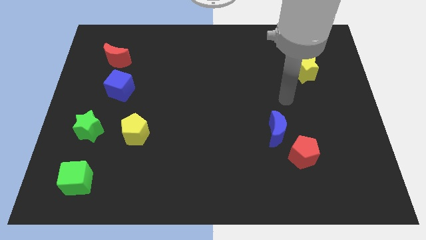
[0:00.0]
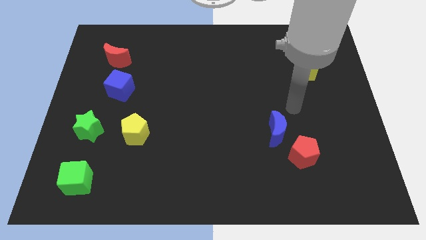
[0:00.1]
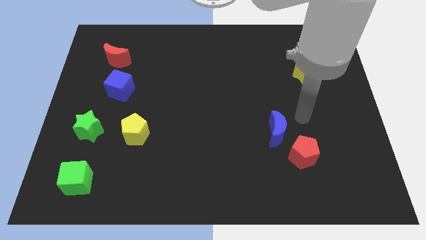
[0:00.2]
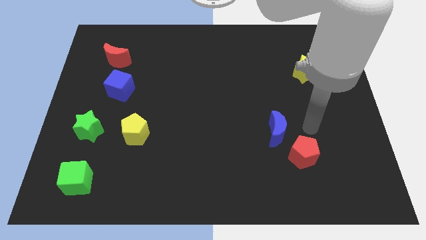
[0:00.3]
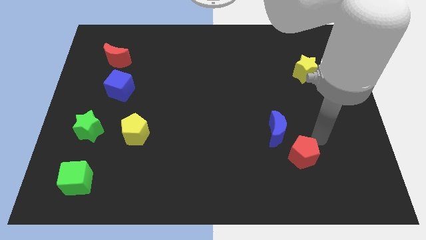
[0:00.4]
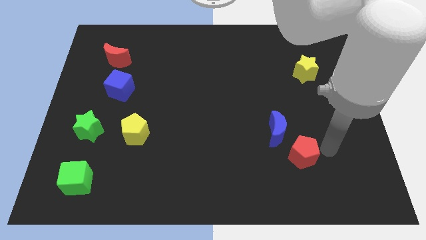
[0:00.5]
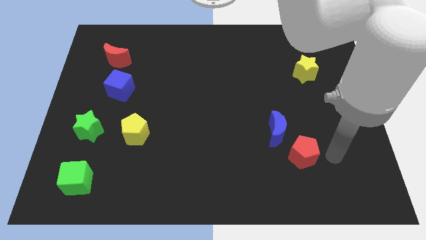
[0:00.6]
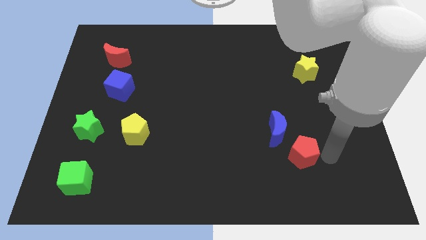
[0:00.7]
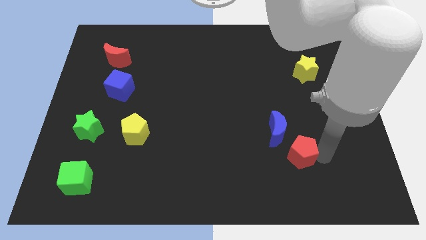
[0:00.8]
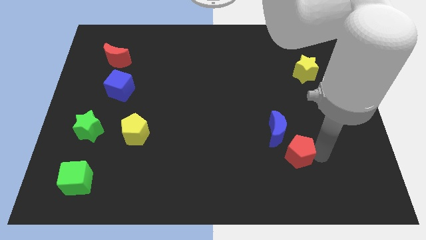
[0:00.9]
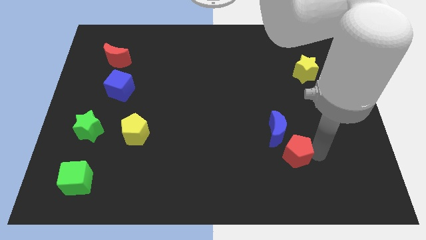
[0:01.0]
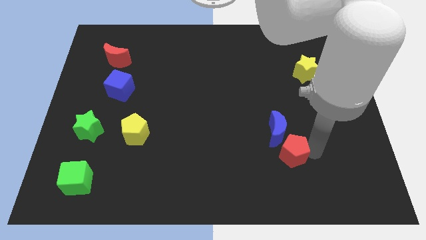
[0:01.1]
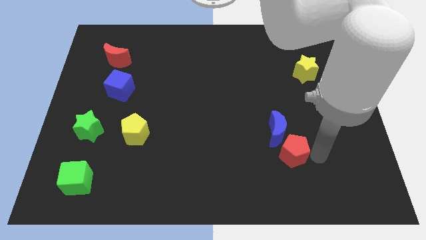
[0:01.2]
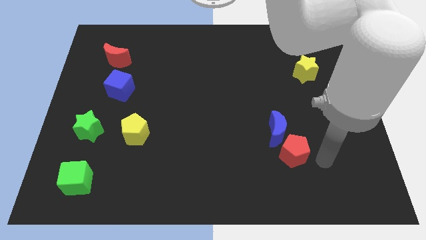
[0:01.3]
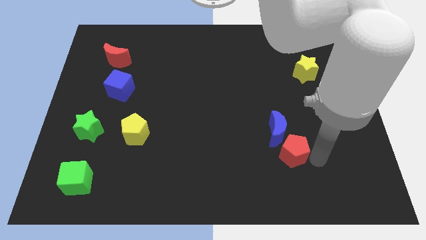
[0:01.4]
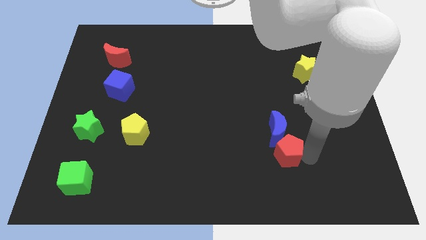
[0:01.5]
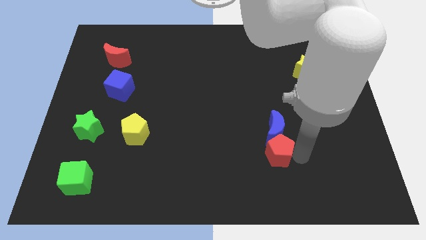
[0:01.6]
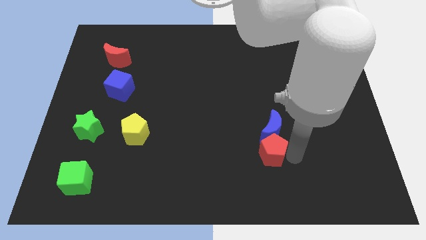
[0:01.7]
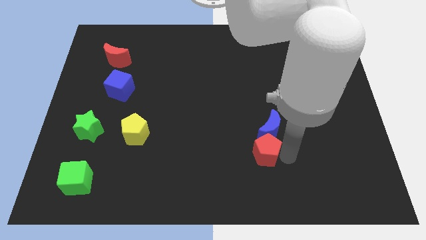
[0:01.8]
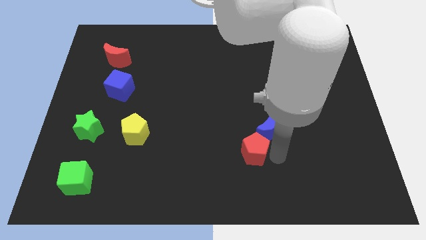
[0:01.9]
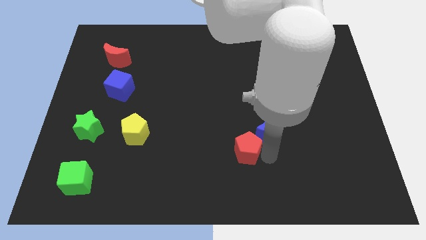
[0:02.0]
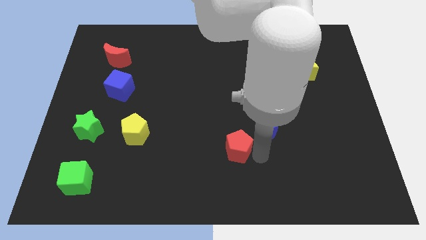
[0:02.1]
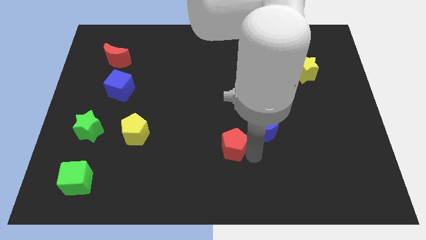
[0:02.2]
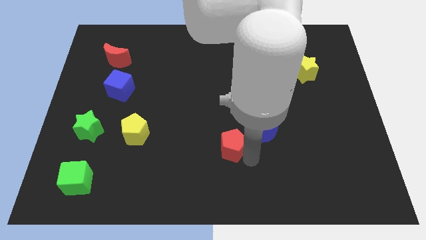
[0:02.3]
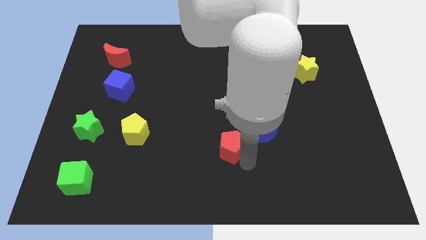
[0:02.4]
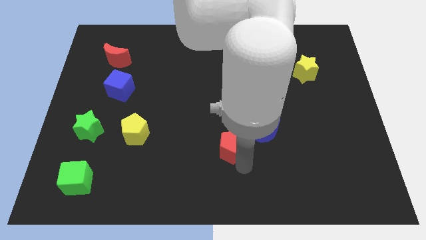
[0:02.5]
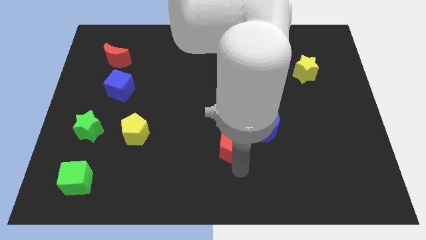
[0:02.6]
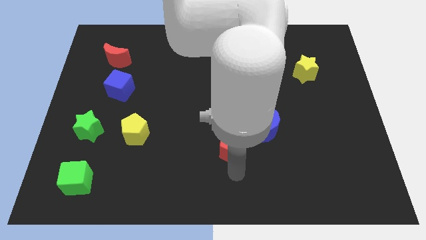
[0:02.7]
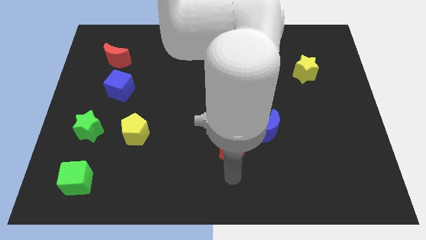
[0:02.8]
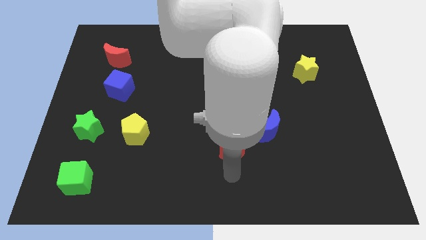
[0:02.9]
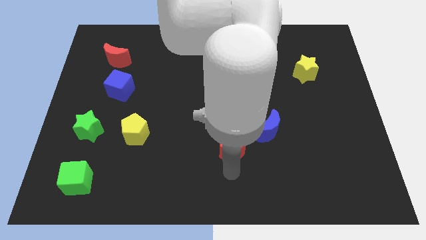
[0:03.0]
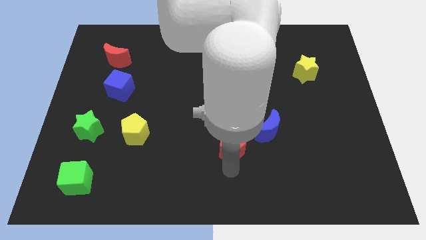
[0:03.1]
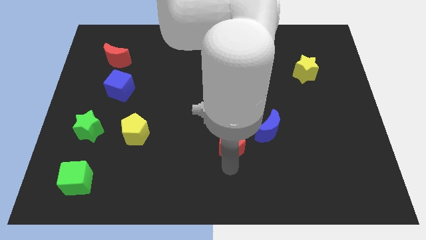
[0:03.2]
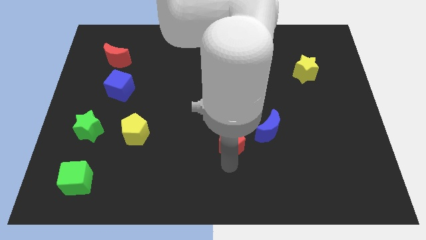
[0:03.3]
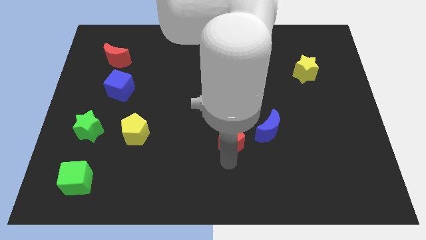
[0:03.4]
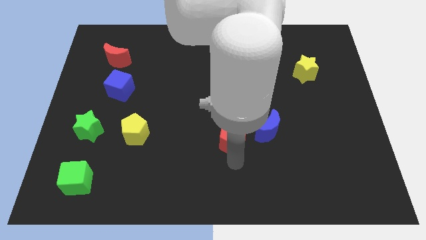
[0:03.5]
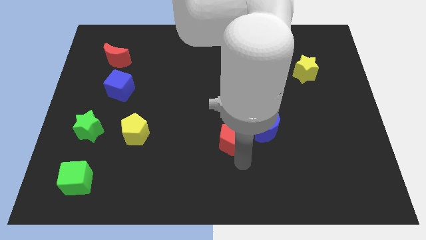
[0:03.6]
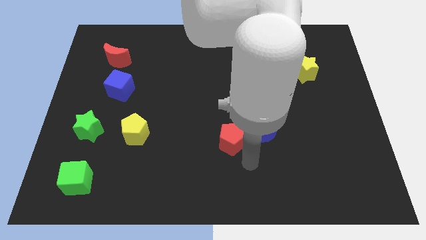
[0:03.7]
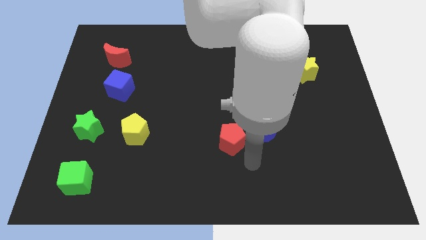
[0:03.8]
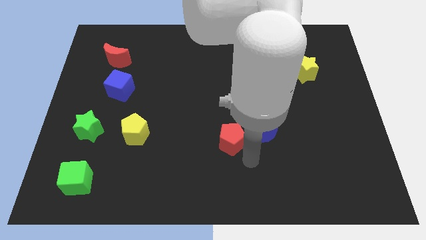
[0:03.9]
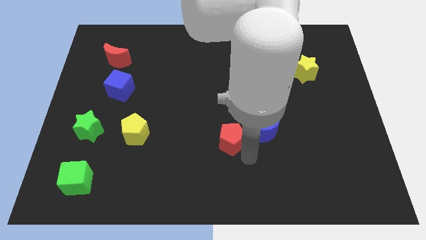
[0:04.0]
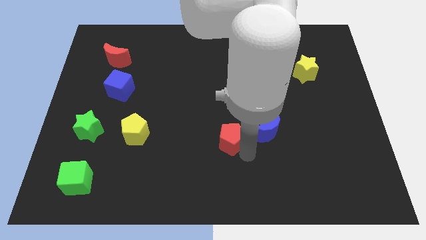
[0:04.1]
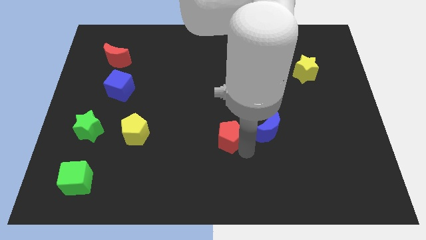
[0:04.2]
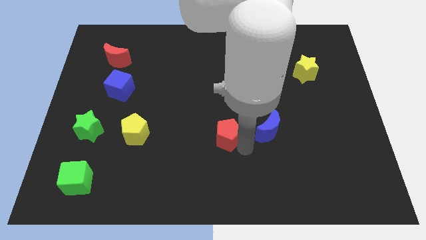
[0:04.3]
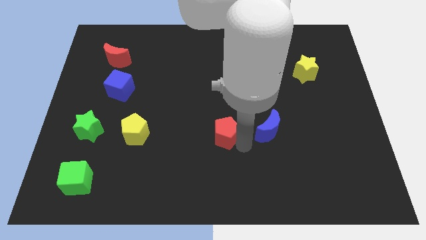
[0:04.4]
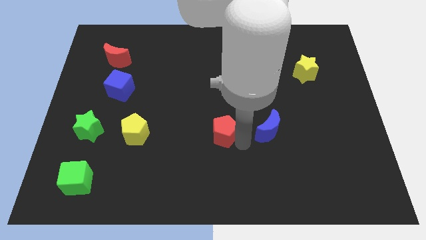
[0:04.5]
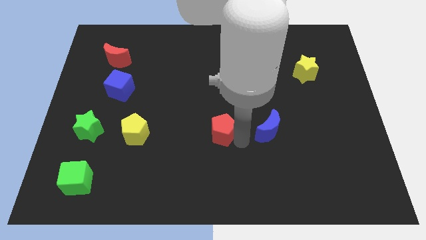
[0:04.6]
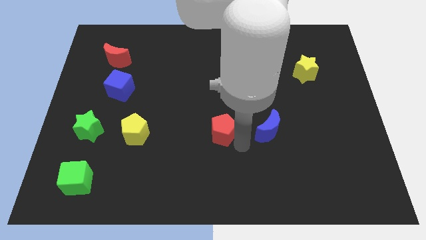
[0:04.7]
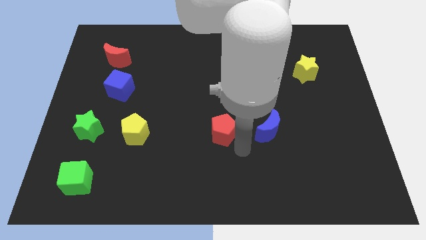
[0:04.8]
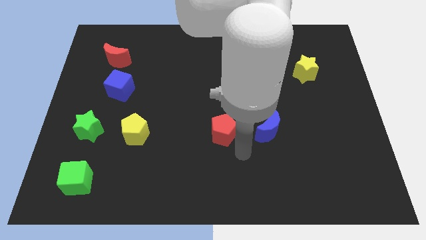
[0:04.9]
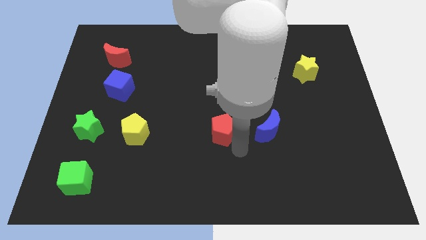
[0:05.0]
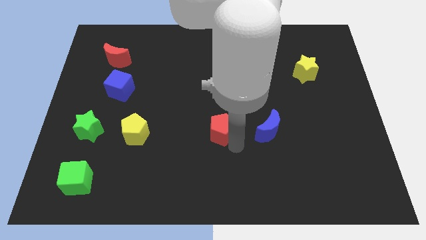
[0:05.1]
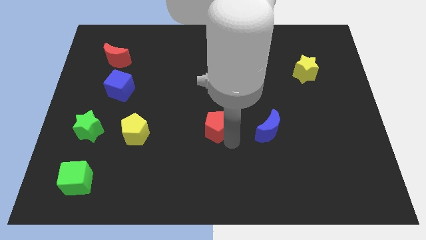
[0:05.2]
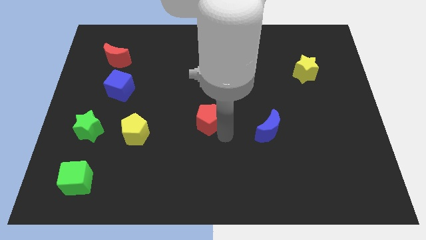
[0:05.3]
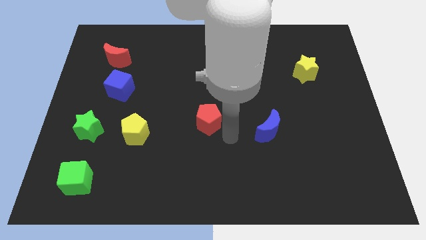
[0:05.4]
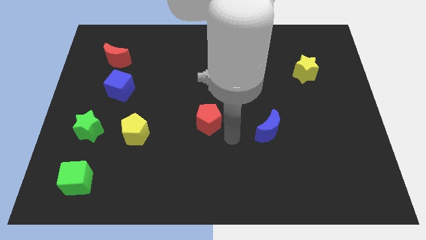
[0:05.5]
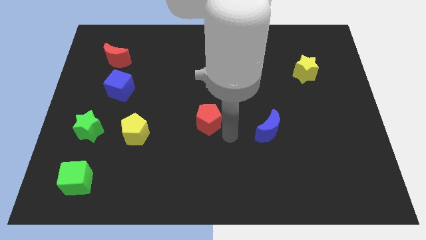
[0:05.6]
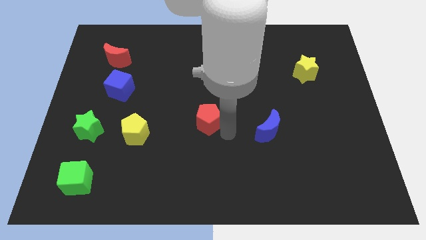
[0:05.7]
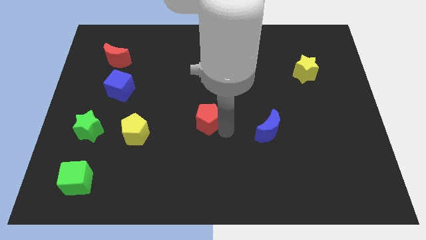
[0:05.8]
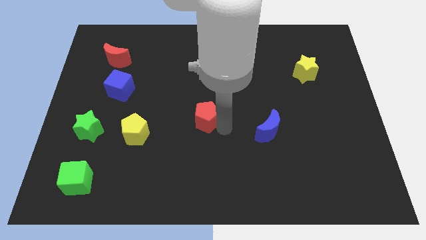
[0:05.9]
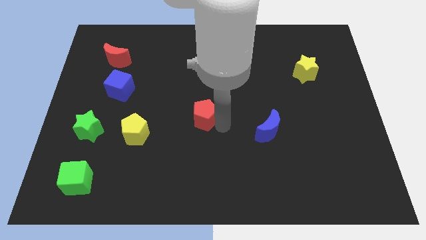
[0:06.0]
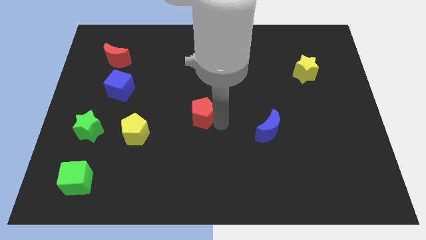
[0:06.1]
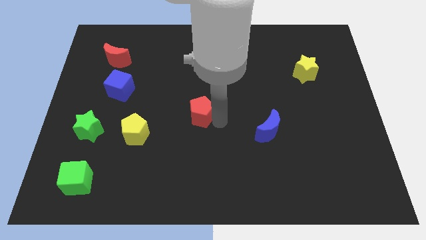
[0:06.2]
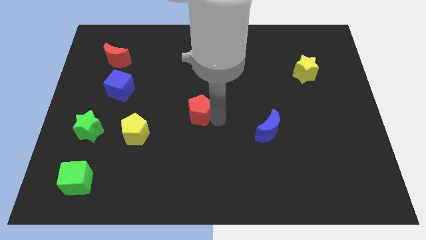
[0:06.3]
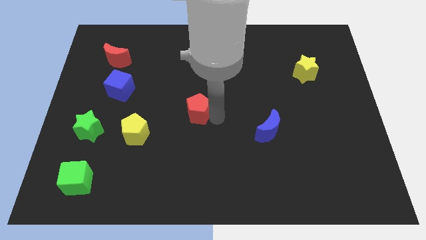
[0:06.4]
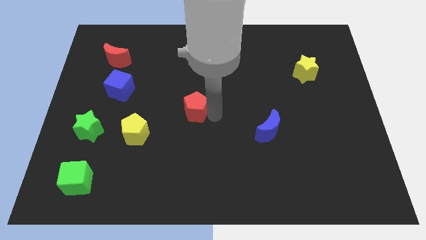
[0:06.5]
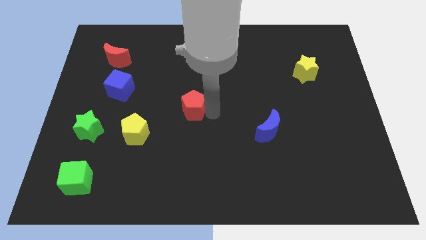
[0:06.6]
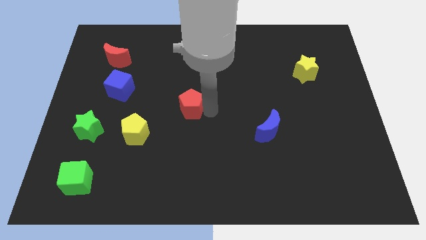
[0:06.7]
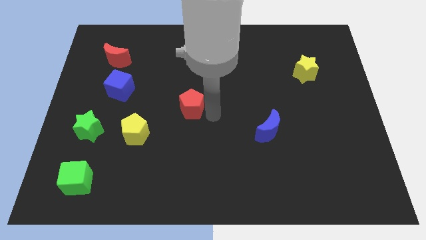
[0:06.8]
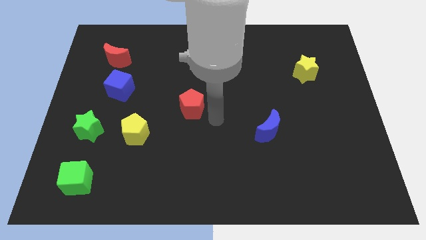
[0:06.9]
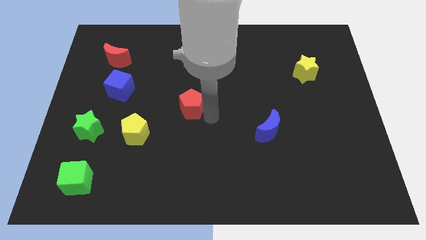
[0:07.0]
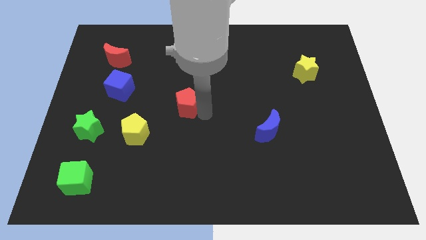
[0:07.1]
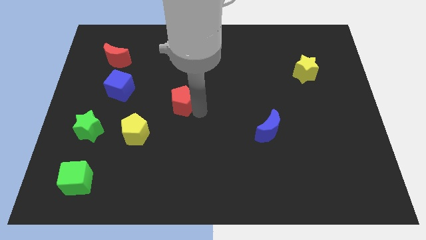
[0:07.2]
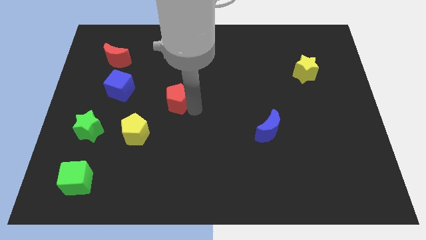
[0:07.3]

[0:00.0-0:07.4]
slide the red pentagon just right of the blue cube
